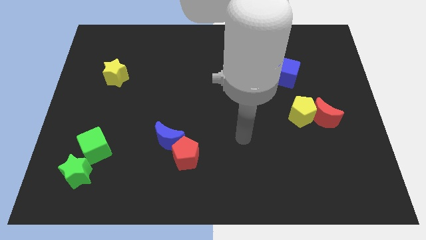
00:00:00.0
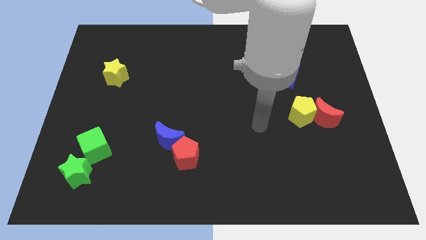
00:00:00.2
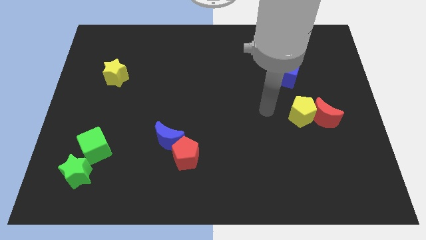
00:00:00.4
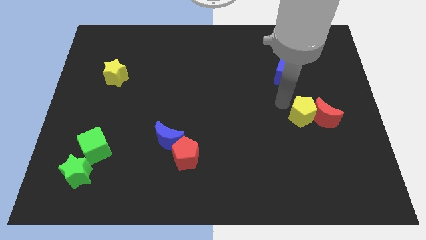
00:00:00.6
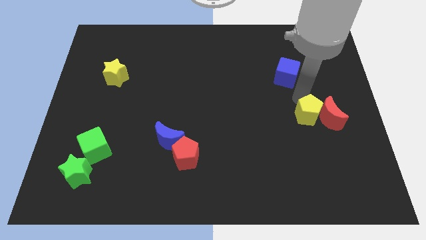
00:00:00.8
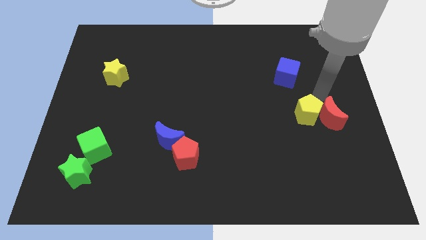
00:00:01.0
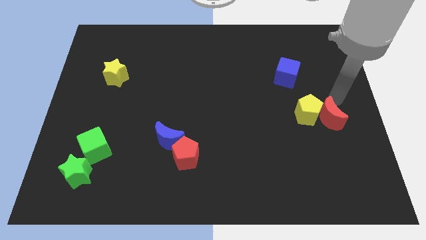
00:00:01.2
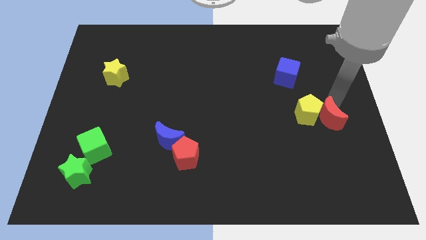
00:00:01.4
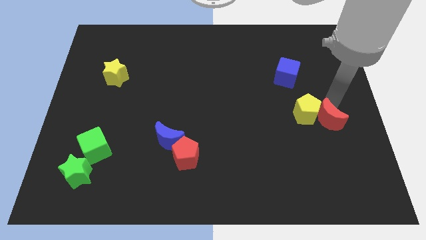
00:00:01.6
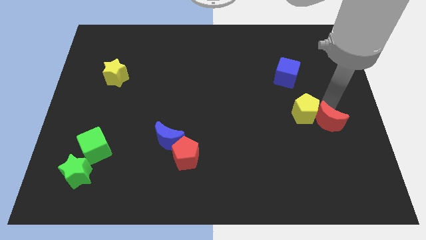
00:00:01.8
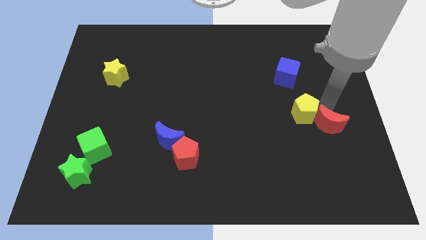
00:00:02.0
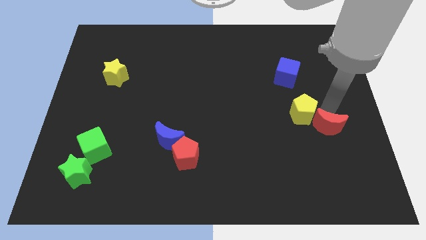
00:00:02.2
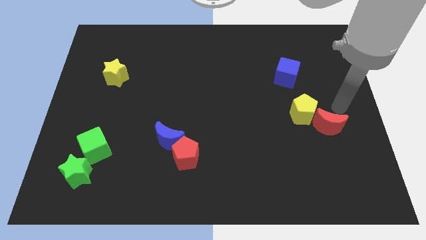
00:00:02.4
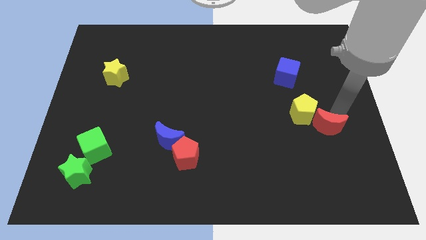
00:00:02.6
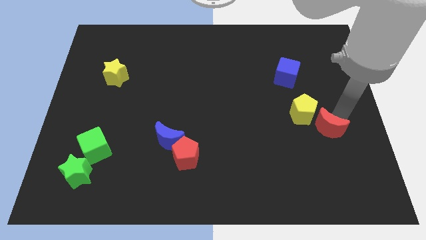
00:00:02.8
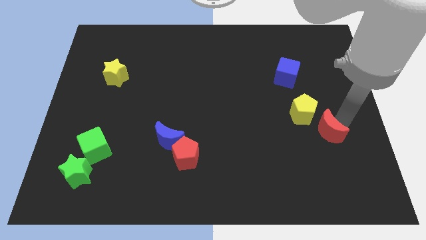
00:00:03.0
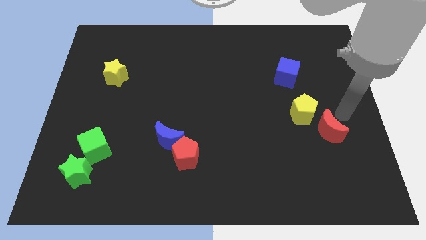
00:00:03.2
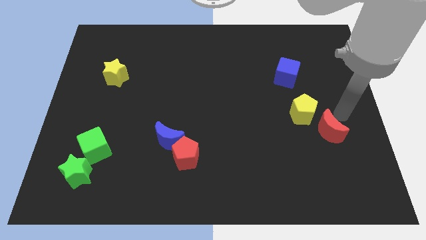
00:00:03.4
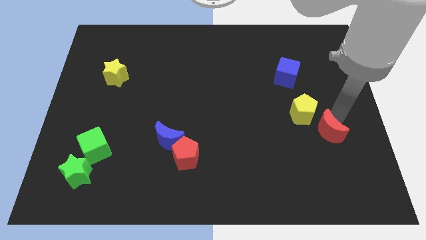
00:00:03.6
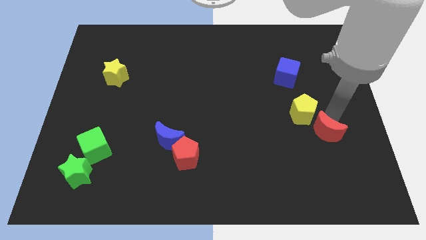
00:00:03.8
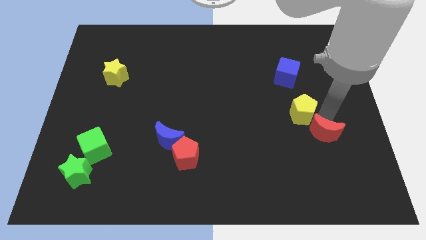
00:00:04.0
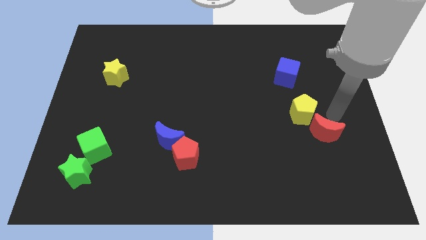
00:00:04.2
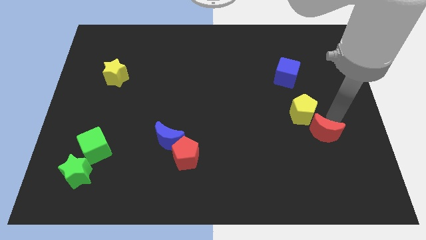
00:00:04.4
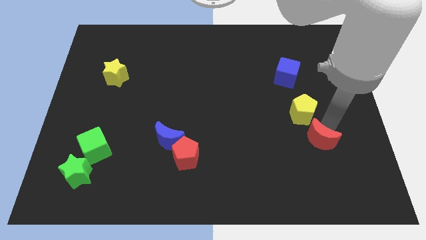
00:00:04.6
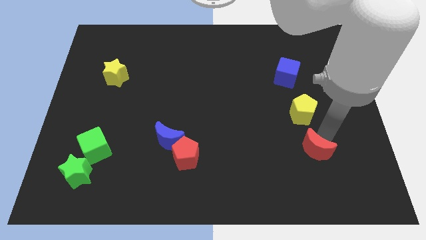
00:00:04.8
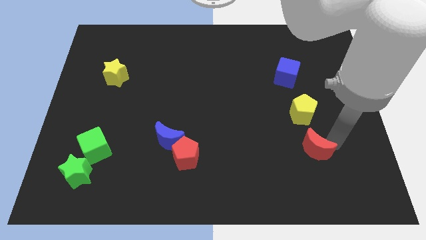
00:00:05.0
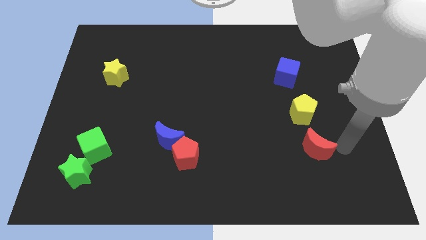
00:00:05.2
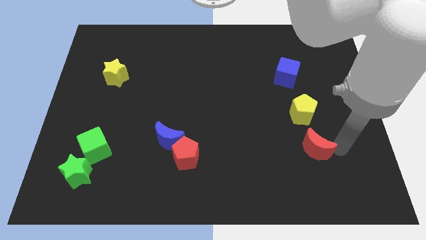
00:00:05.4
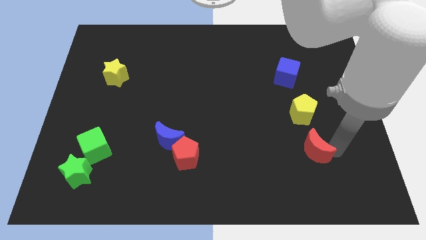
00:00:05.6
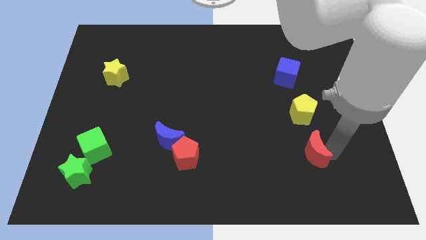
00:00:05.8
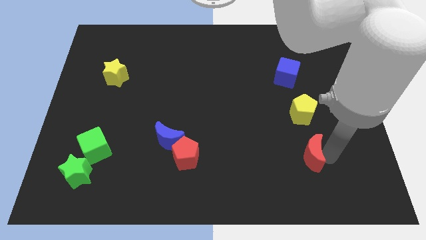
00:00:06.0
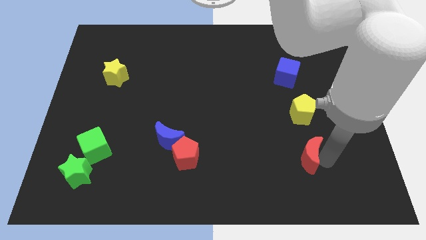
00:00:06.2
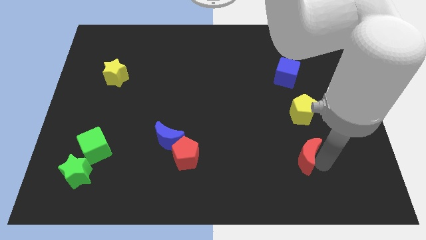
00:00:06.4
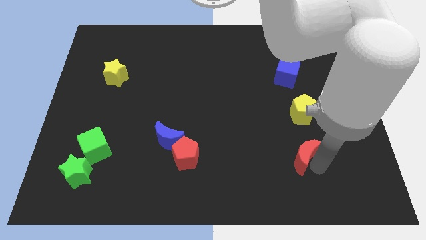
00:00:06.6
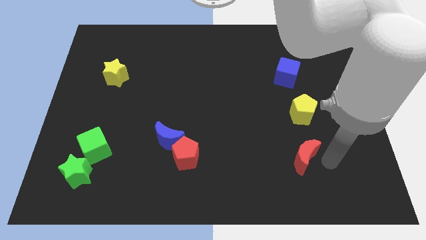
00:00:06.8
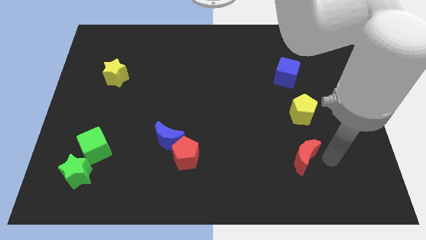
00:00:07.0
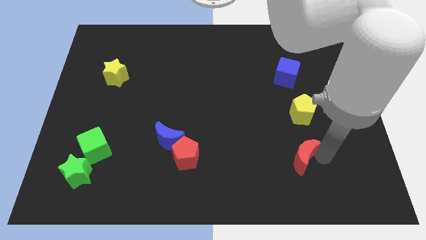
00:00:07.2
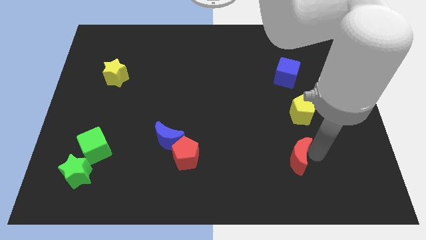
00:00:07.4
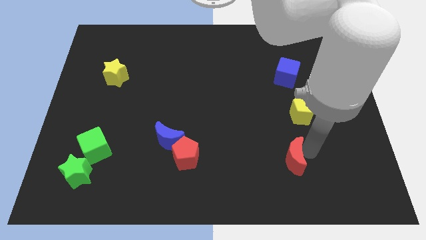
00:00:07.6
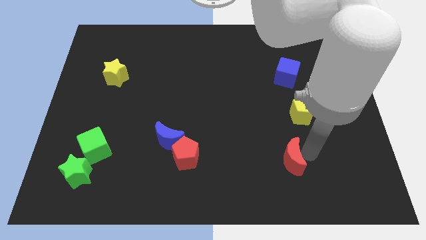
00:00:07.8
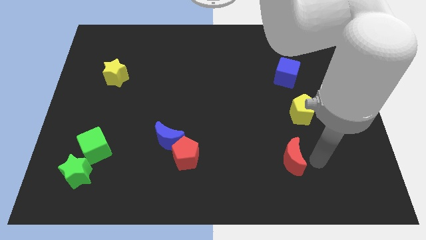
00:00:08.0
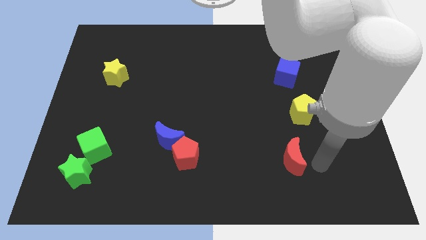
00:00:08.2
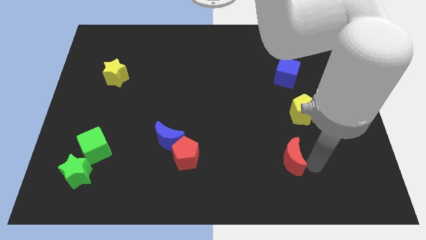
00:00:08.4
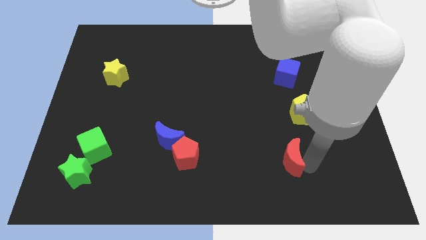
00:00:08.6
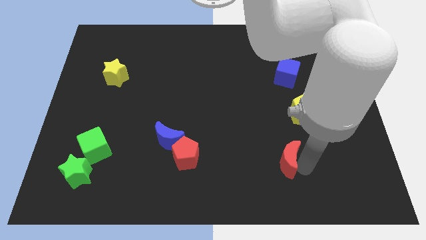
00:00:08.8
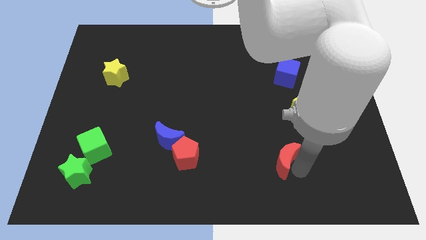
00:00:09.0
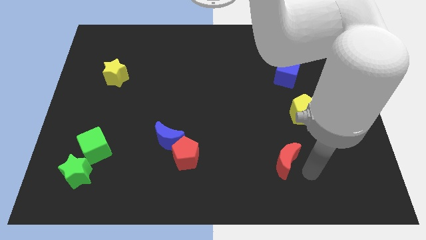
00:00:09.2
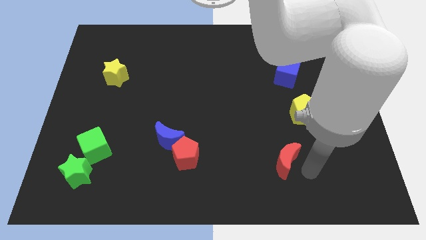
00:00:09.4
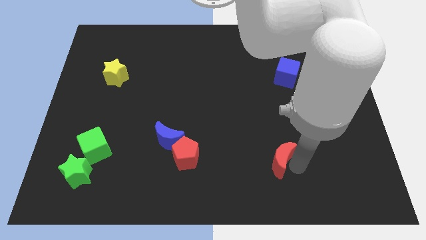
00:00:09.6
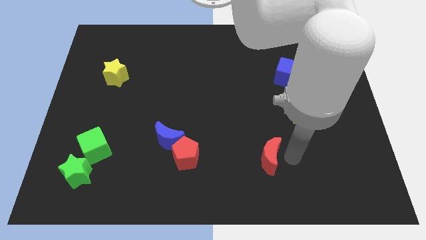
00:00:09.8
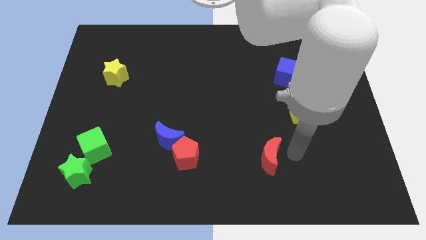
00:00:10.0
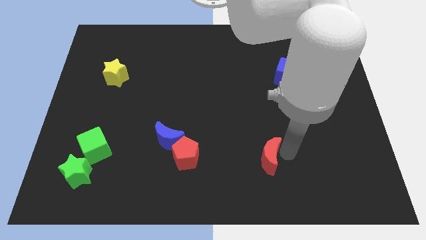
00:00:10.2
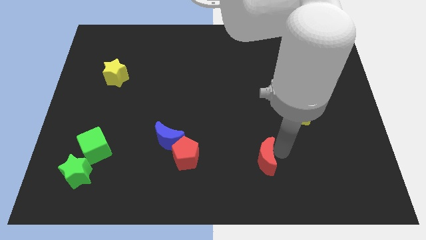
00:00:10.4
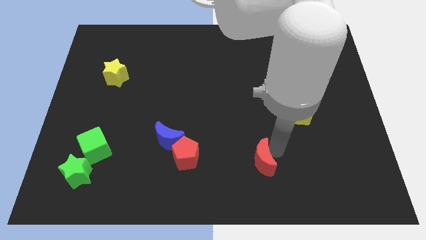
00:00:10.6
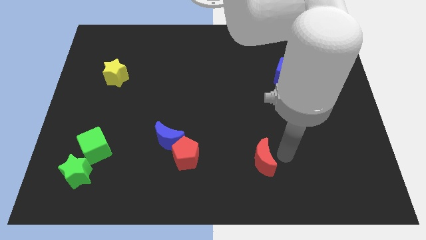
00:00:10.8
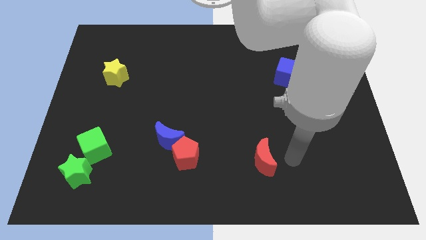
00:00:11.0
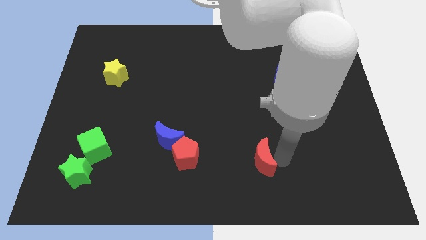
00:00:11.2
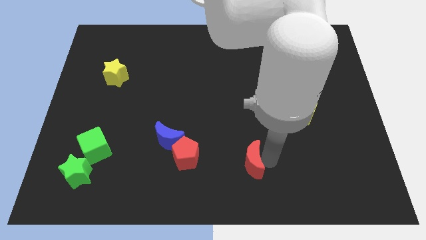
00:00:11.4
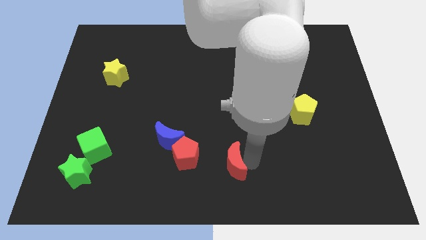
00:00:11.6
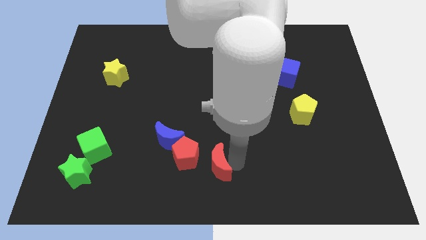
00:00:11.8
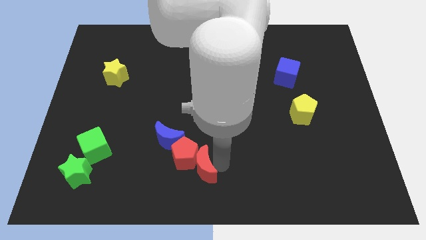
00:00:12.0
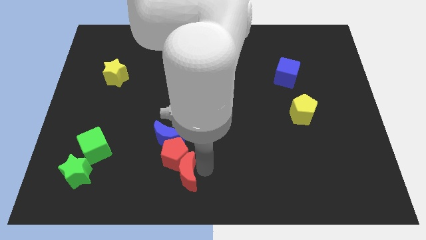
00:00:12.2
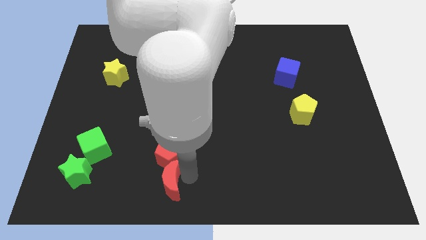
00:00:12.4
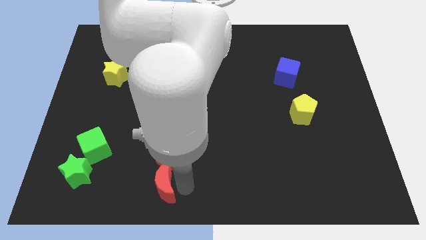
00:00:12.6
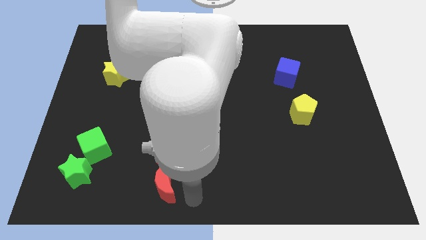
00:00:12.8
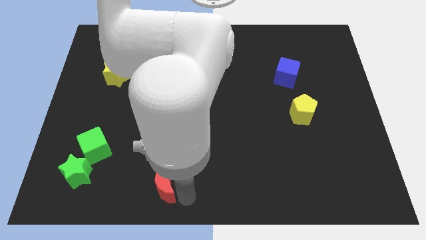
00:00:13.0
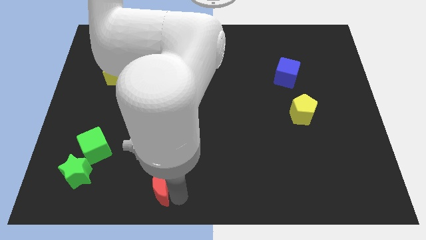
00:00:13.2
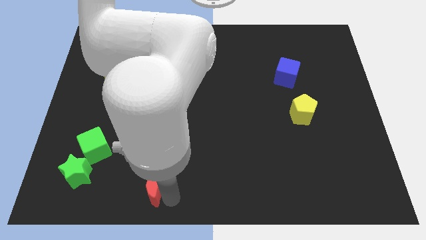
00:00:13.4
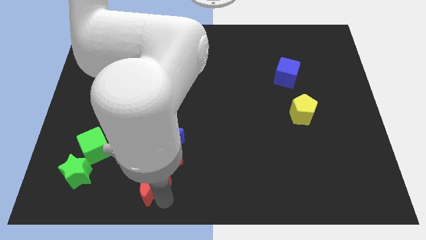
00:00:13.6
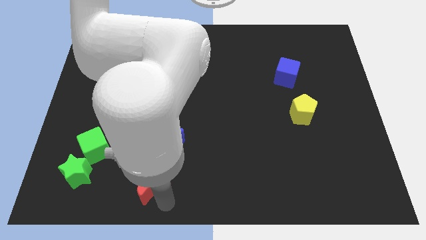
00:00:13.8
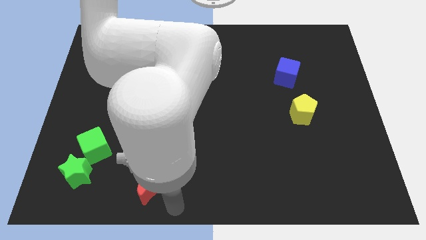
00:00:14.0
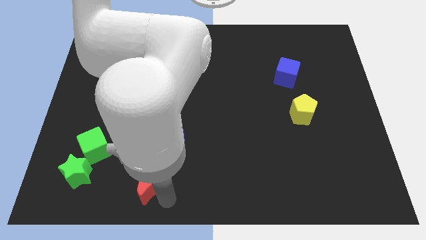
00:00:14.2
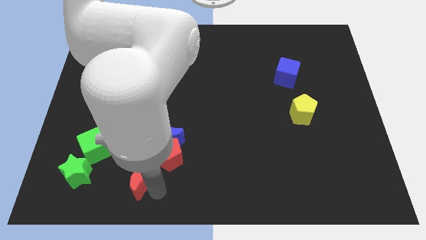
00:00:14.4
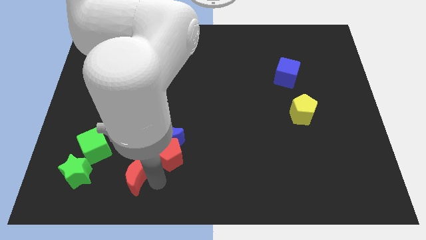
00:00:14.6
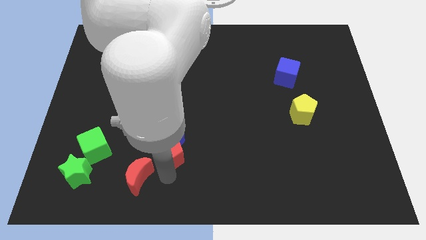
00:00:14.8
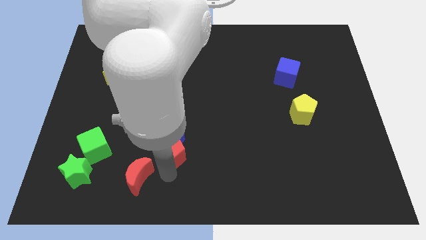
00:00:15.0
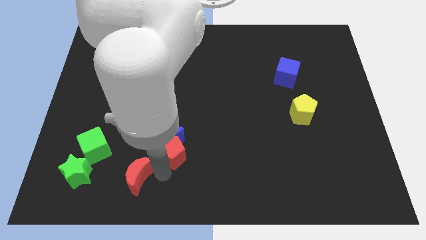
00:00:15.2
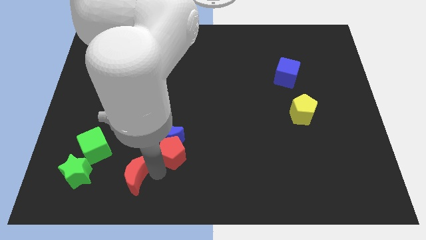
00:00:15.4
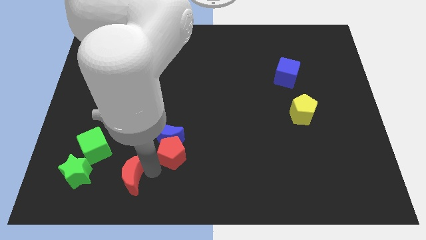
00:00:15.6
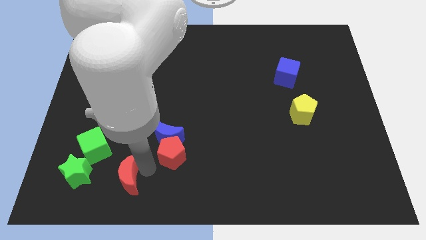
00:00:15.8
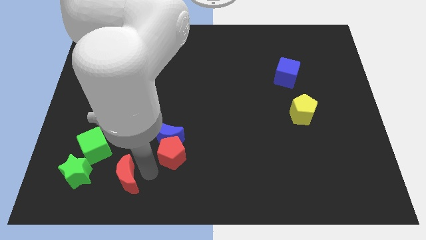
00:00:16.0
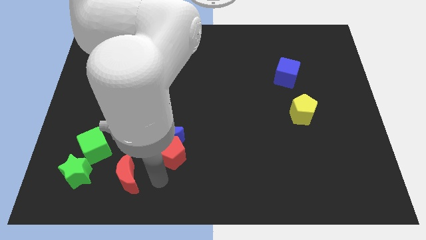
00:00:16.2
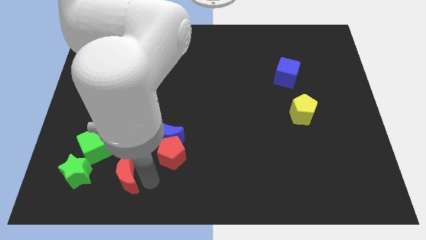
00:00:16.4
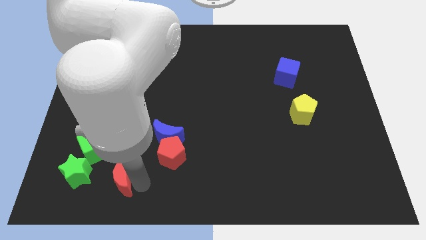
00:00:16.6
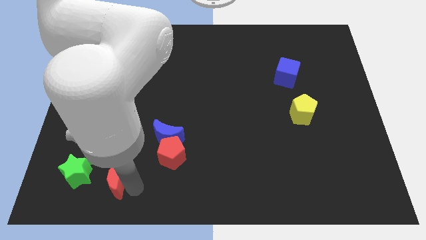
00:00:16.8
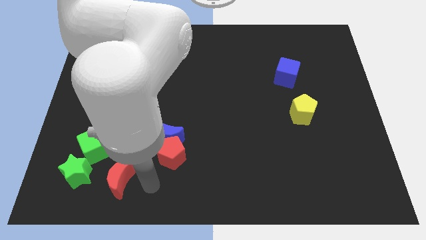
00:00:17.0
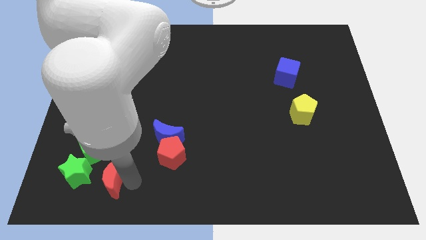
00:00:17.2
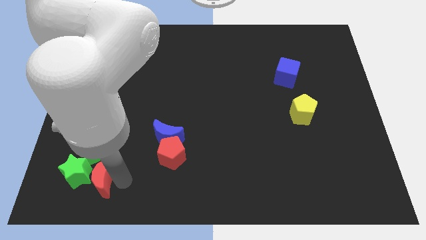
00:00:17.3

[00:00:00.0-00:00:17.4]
push the red moon close to the green star
